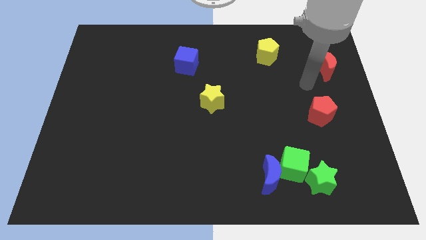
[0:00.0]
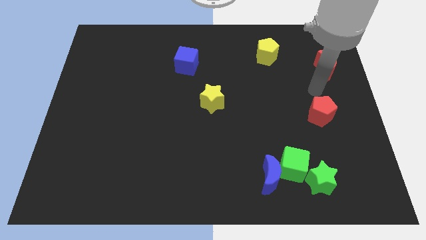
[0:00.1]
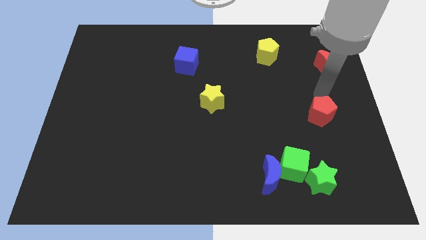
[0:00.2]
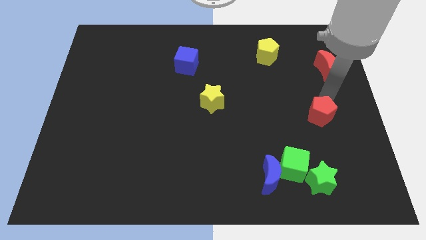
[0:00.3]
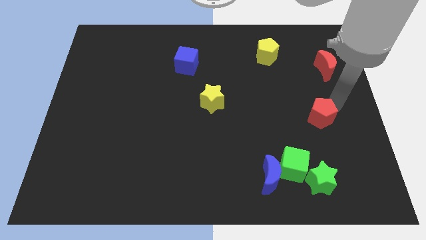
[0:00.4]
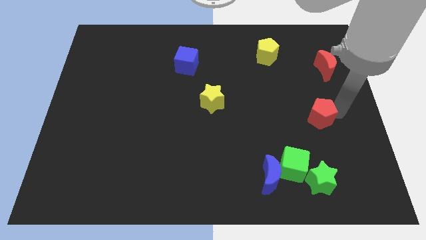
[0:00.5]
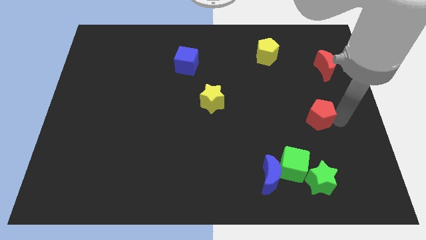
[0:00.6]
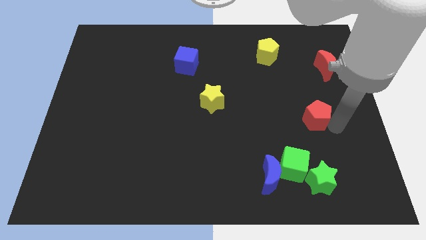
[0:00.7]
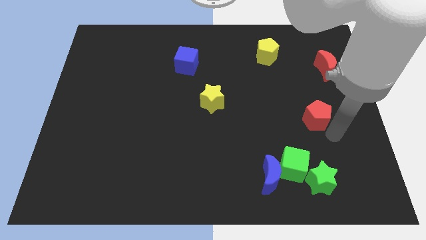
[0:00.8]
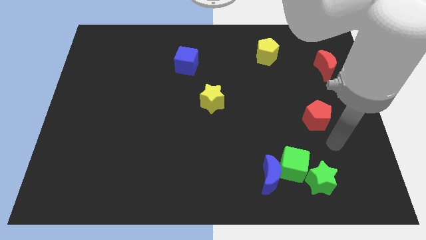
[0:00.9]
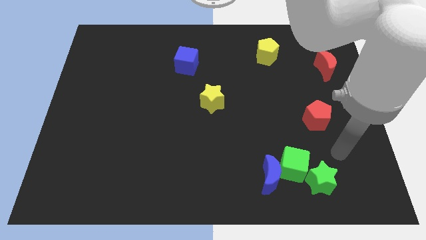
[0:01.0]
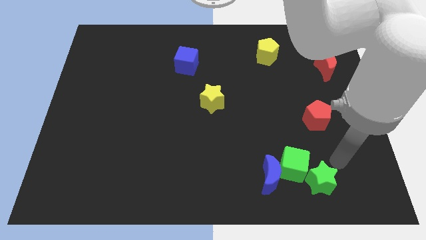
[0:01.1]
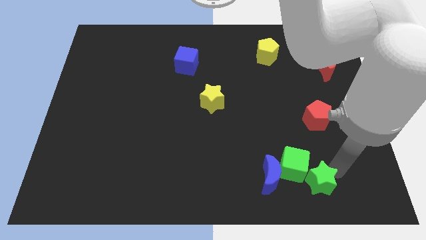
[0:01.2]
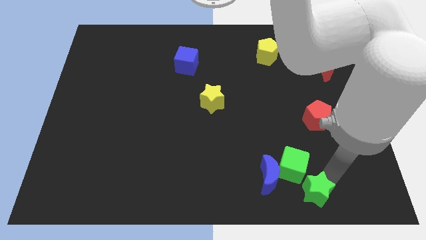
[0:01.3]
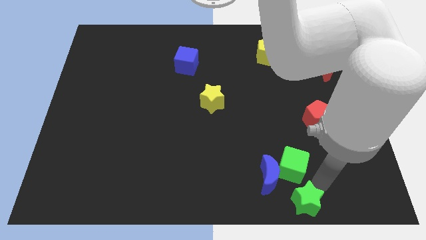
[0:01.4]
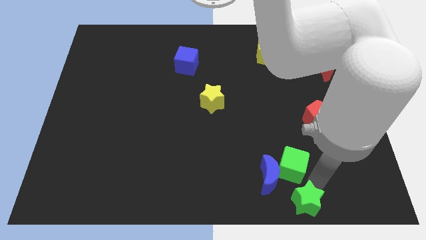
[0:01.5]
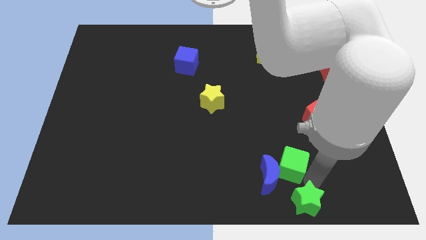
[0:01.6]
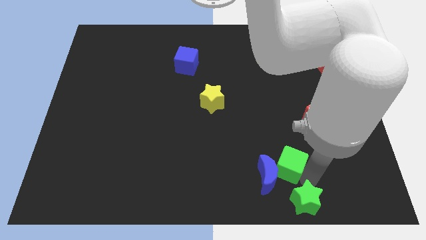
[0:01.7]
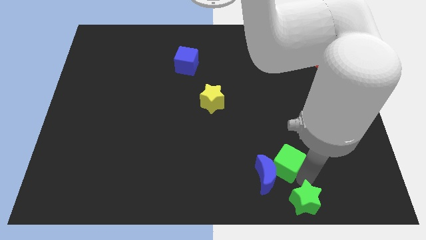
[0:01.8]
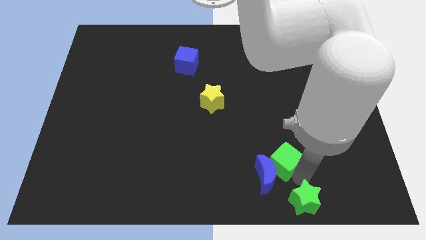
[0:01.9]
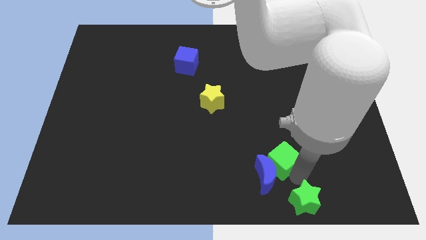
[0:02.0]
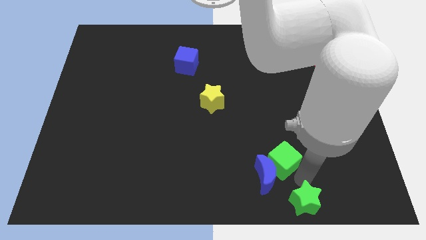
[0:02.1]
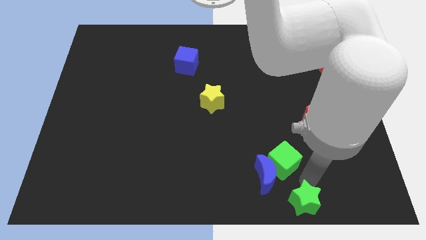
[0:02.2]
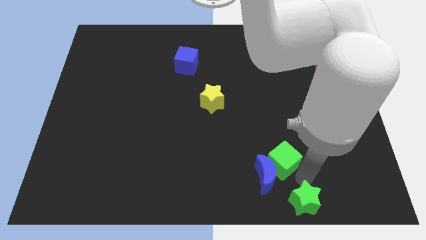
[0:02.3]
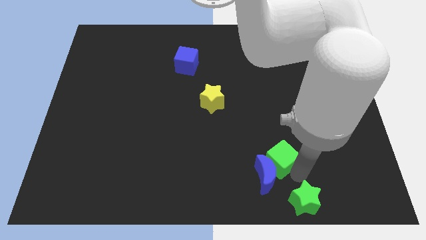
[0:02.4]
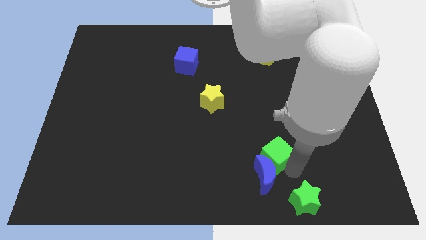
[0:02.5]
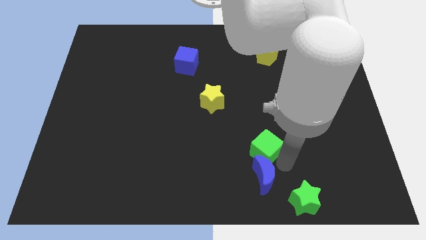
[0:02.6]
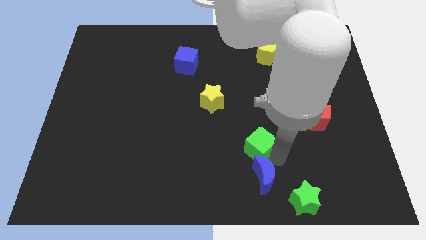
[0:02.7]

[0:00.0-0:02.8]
push the green cube somewhat upwards and left diagonally

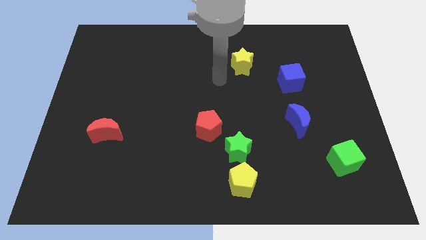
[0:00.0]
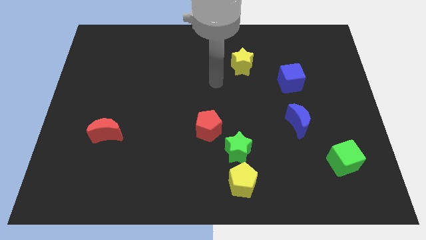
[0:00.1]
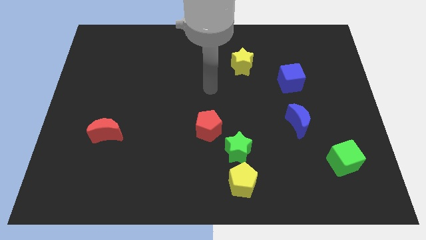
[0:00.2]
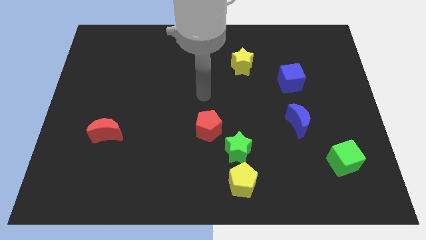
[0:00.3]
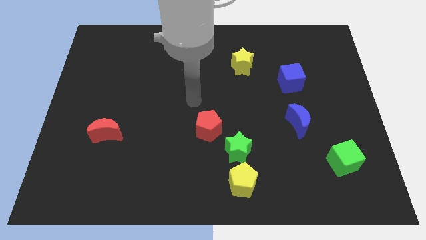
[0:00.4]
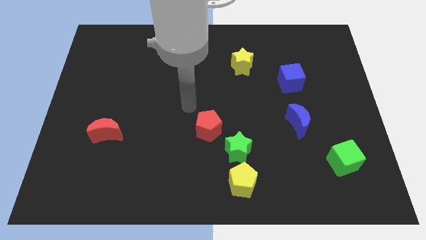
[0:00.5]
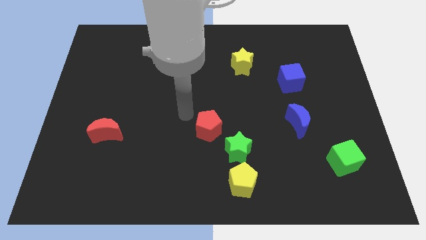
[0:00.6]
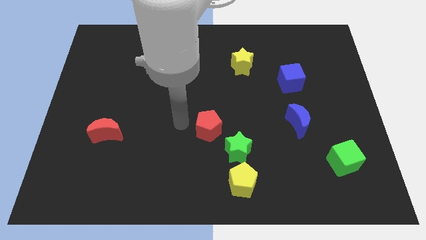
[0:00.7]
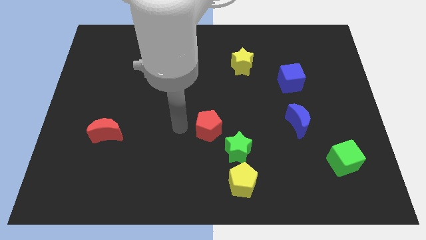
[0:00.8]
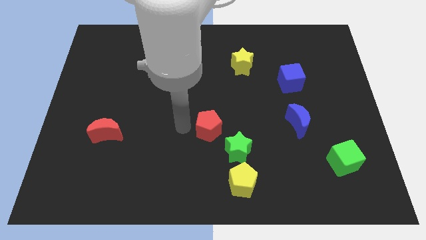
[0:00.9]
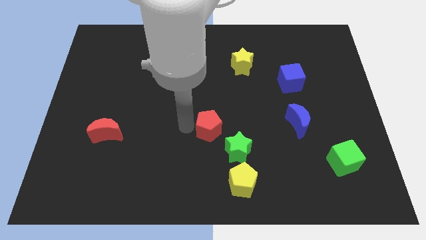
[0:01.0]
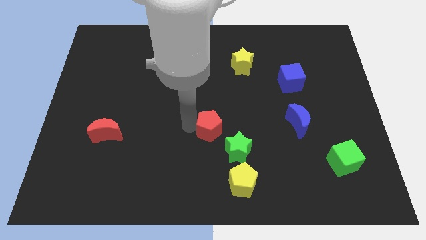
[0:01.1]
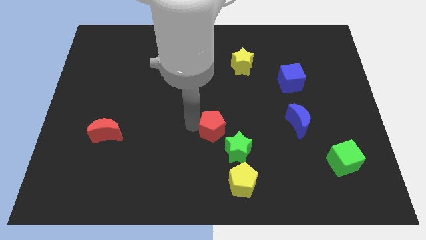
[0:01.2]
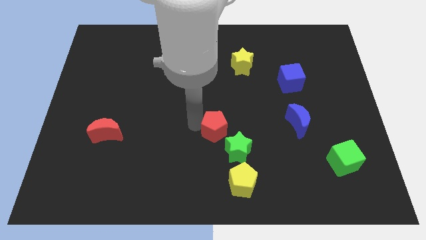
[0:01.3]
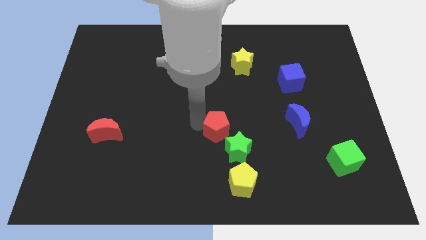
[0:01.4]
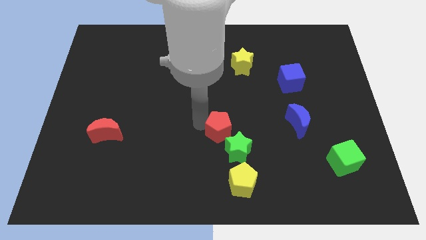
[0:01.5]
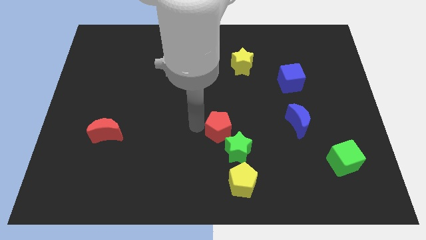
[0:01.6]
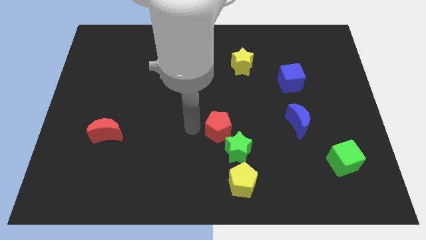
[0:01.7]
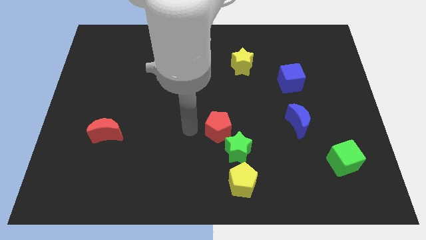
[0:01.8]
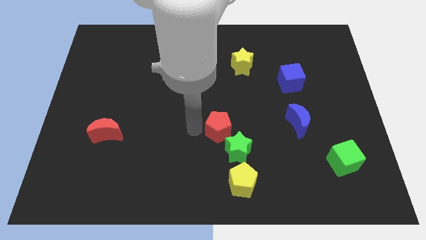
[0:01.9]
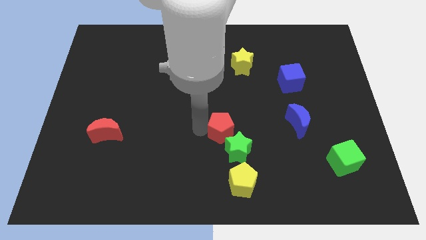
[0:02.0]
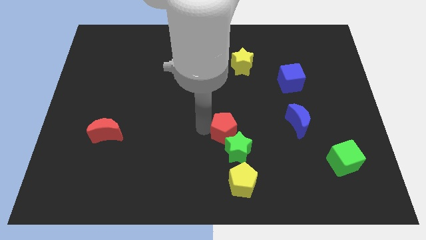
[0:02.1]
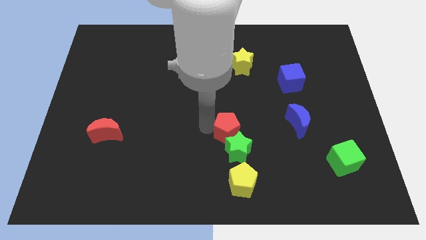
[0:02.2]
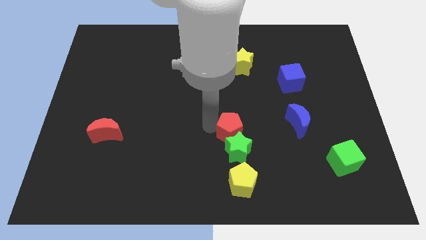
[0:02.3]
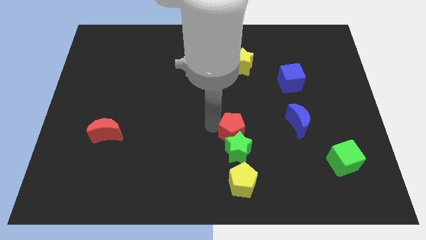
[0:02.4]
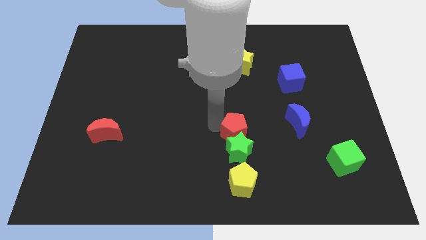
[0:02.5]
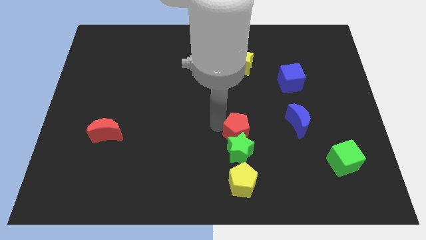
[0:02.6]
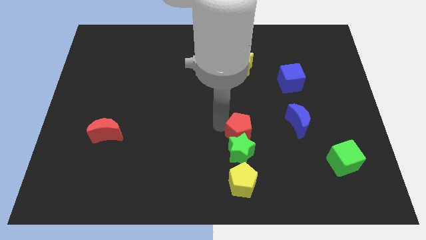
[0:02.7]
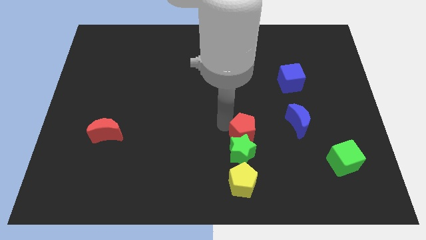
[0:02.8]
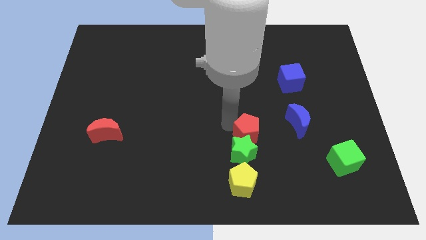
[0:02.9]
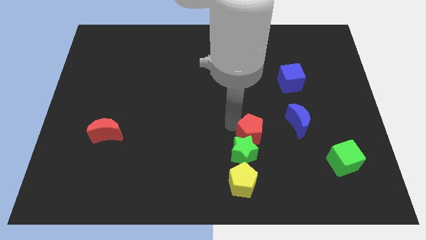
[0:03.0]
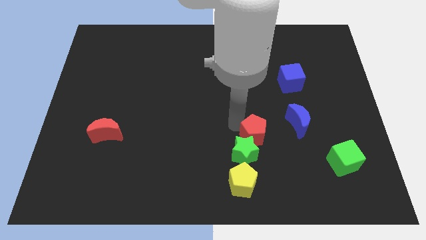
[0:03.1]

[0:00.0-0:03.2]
push the red pentagon a little down and right diagonally

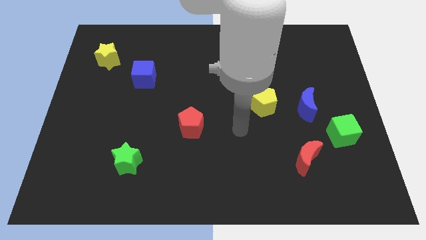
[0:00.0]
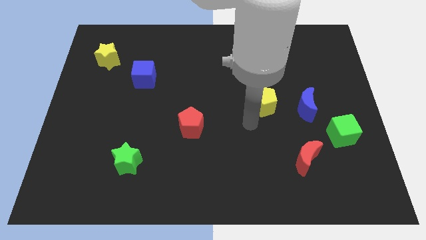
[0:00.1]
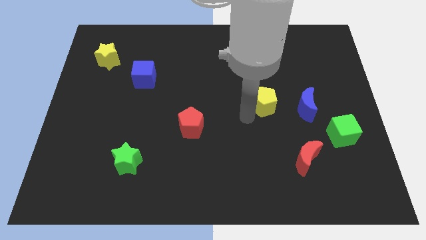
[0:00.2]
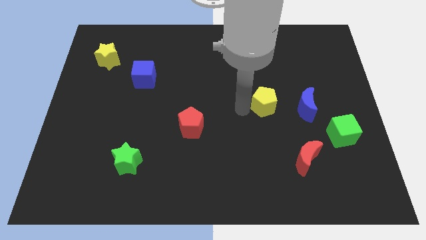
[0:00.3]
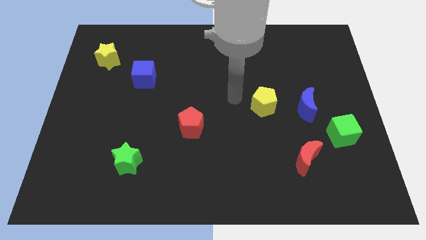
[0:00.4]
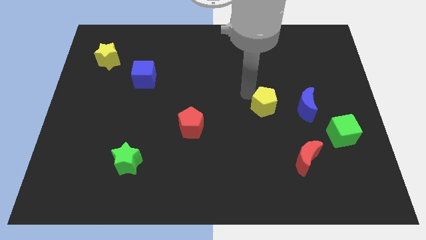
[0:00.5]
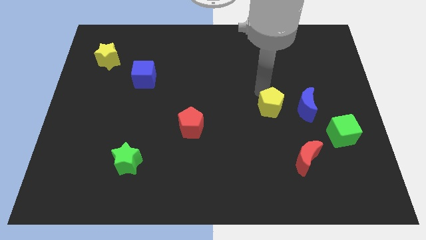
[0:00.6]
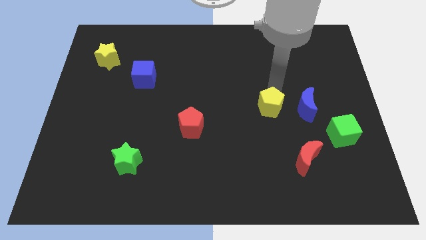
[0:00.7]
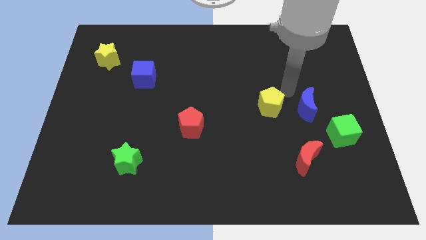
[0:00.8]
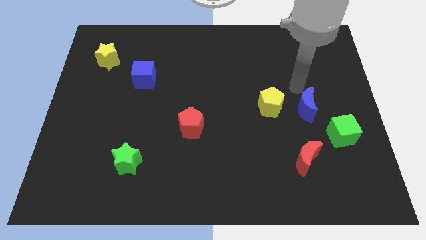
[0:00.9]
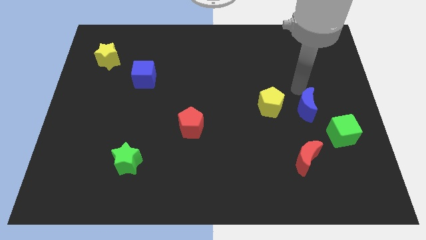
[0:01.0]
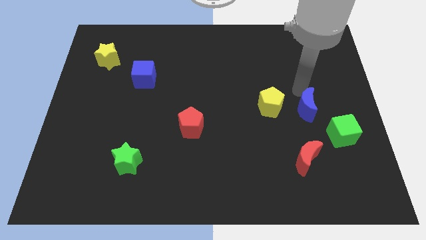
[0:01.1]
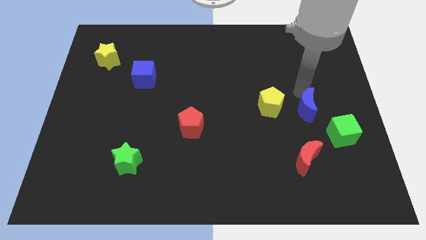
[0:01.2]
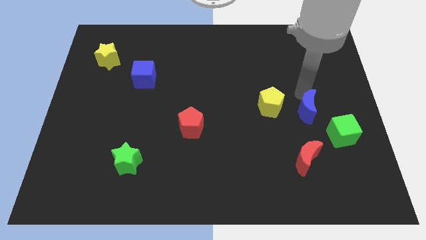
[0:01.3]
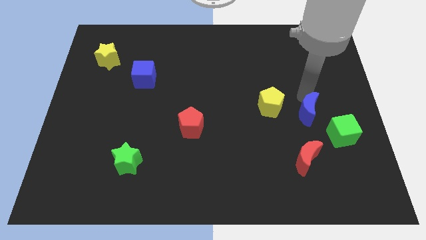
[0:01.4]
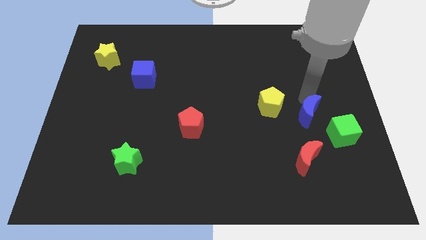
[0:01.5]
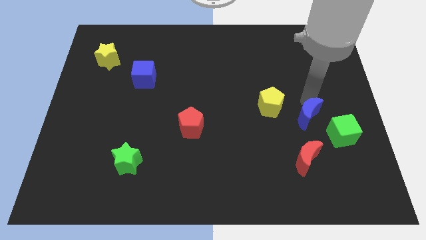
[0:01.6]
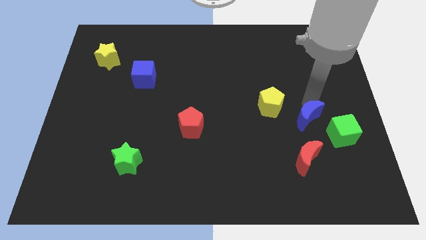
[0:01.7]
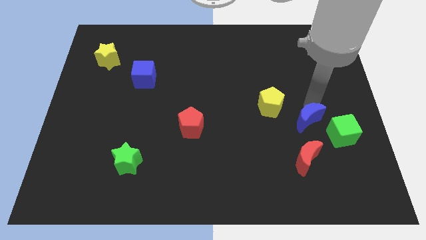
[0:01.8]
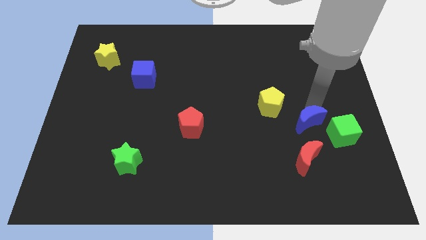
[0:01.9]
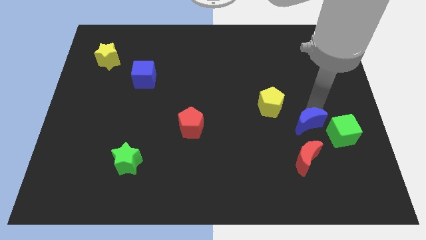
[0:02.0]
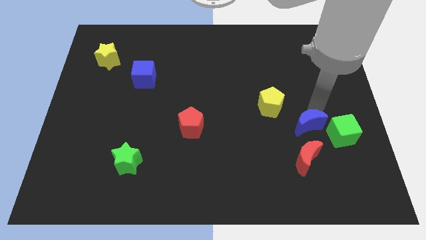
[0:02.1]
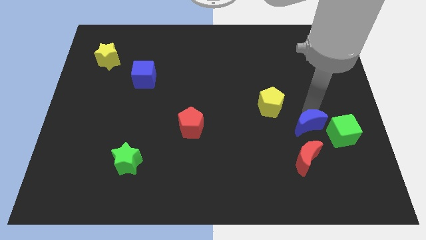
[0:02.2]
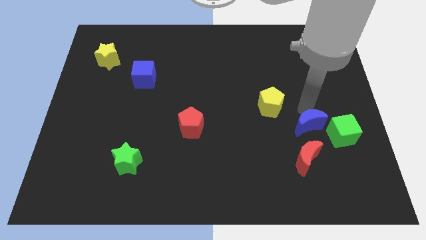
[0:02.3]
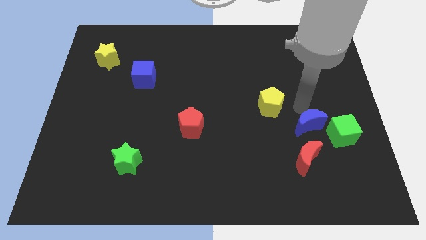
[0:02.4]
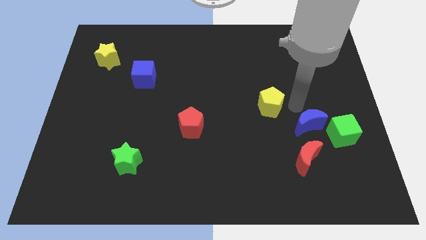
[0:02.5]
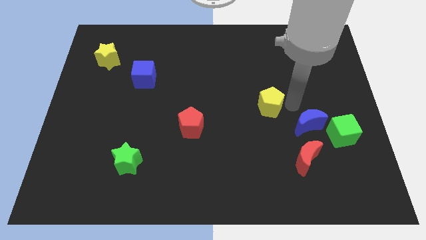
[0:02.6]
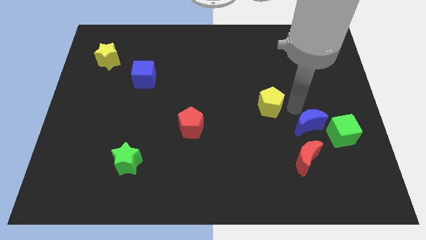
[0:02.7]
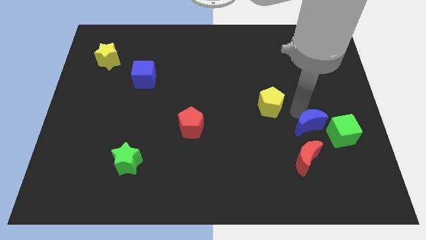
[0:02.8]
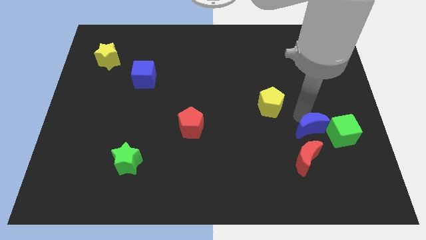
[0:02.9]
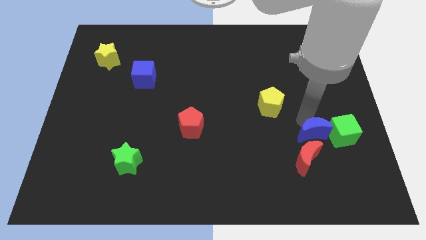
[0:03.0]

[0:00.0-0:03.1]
slightly move the blue moon downwards
